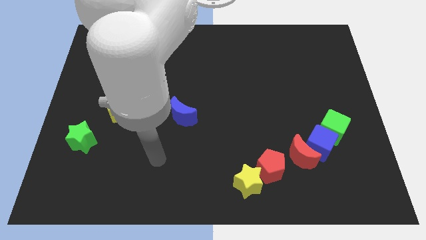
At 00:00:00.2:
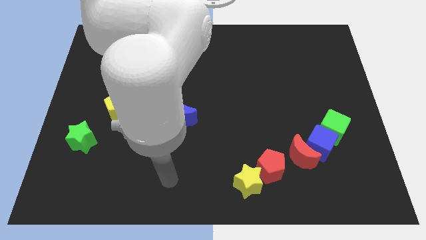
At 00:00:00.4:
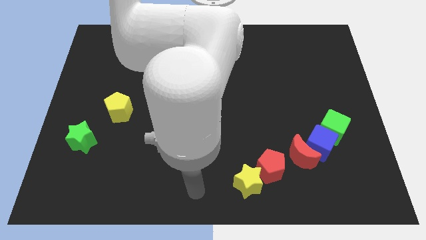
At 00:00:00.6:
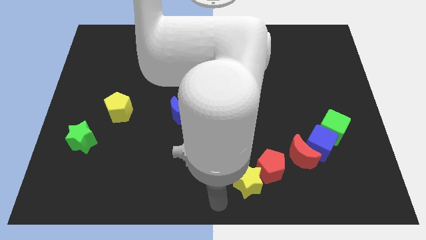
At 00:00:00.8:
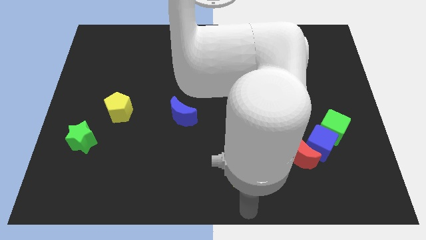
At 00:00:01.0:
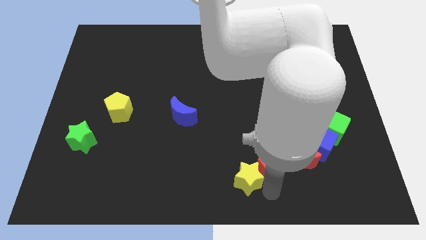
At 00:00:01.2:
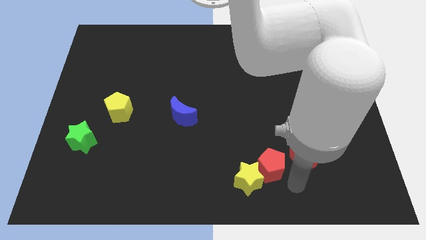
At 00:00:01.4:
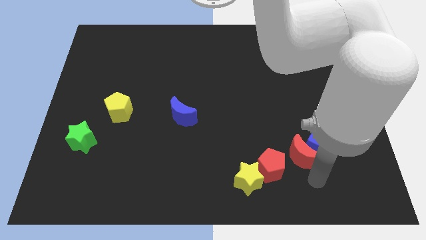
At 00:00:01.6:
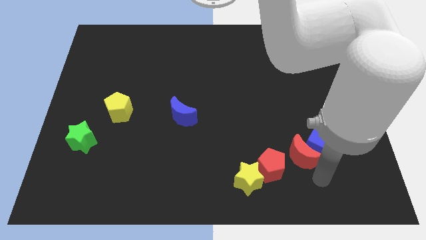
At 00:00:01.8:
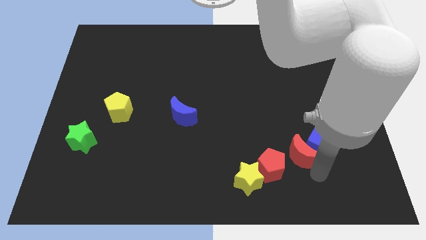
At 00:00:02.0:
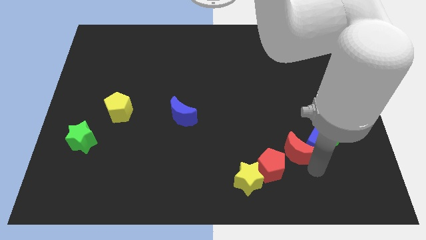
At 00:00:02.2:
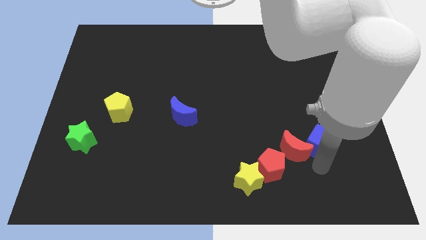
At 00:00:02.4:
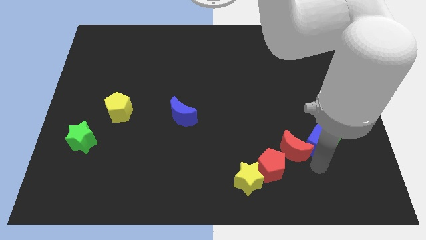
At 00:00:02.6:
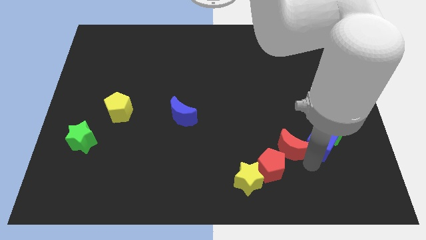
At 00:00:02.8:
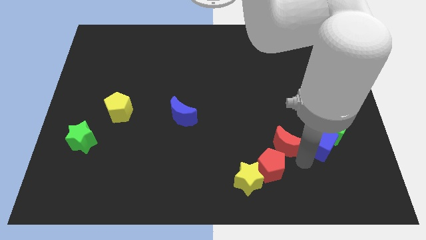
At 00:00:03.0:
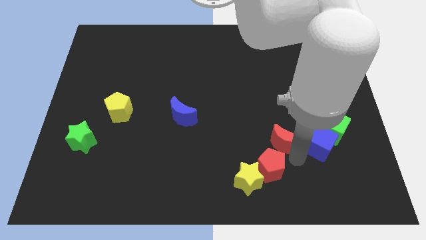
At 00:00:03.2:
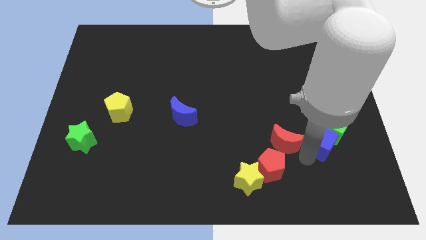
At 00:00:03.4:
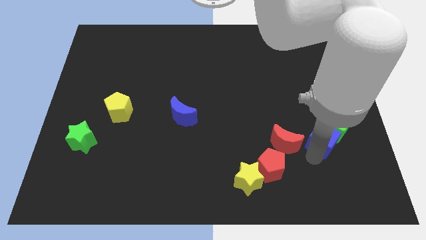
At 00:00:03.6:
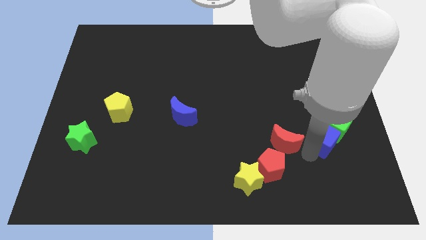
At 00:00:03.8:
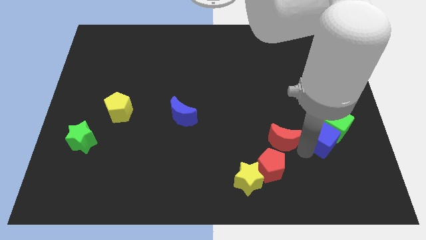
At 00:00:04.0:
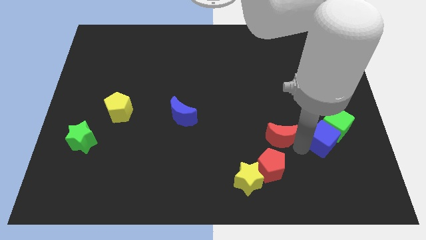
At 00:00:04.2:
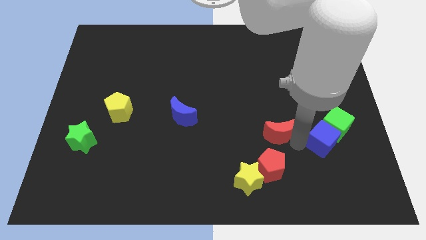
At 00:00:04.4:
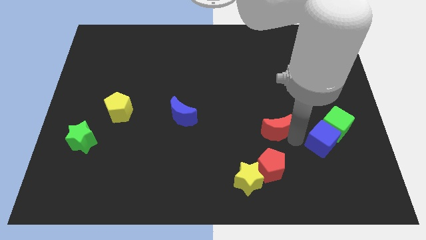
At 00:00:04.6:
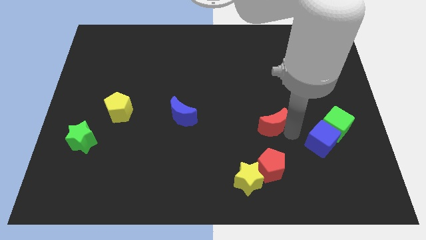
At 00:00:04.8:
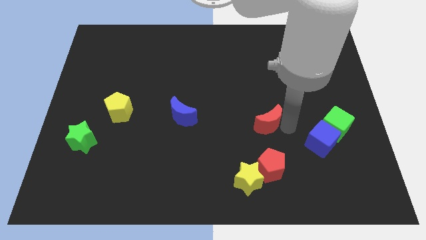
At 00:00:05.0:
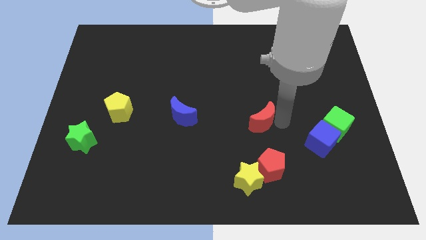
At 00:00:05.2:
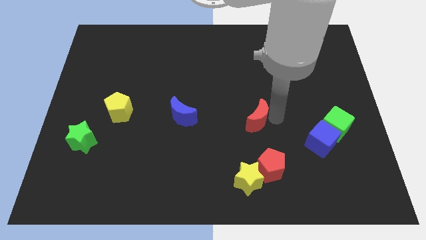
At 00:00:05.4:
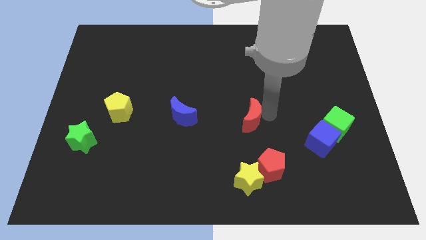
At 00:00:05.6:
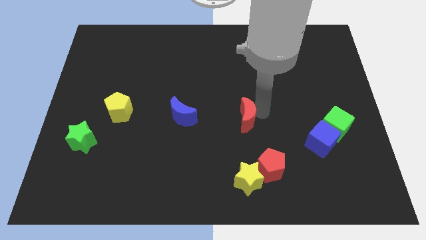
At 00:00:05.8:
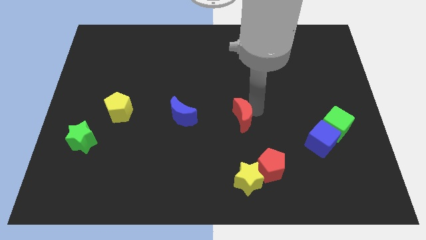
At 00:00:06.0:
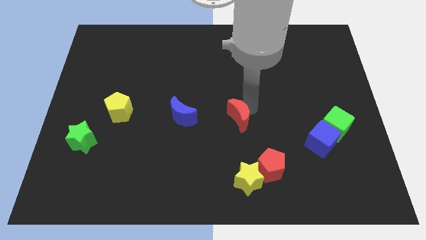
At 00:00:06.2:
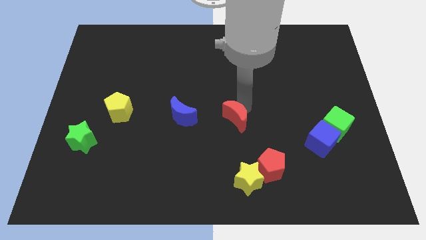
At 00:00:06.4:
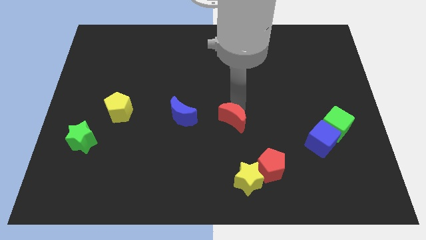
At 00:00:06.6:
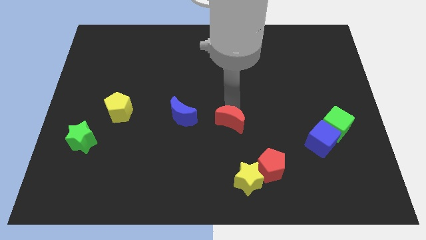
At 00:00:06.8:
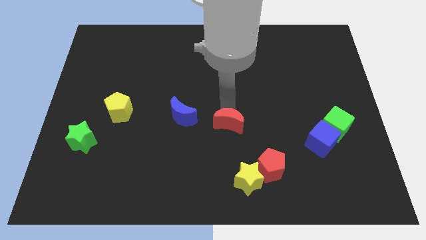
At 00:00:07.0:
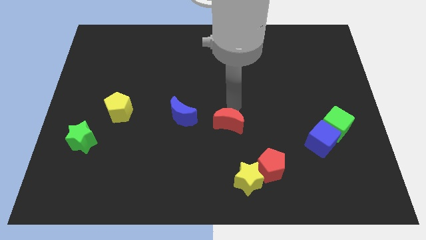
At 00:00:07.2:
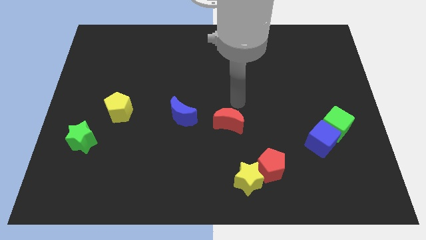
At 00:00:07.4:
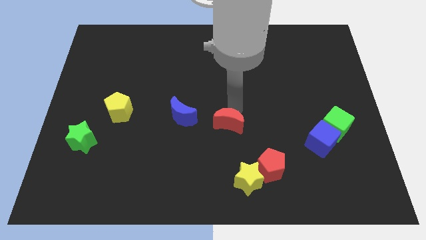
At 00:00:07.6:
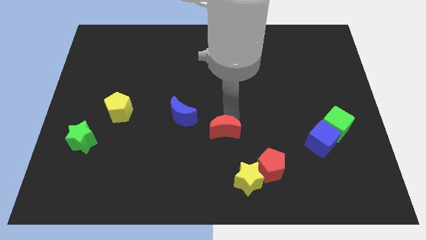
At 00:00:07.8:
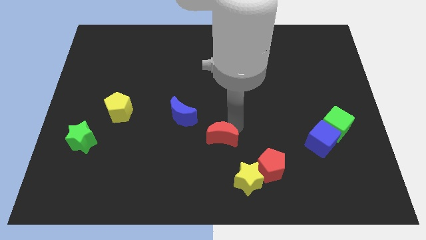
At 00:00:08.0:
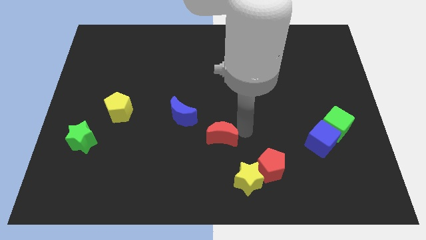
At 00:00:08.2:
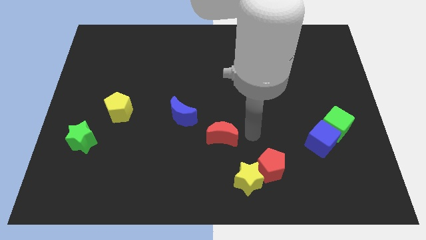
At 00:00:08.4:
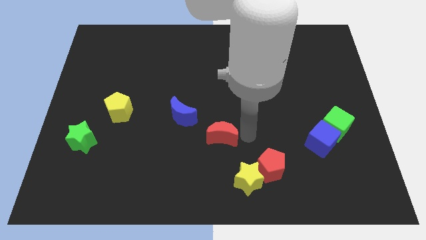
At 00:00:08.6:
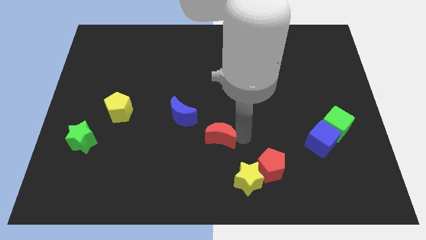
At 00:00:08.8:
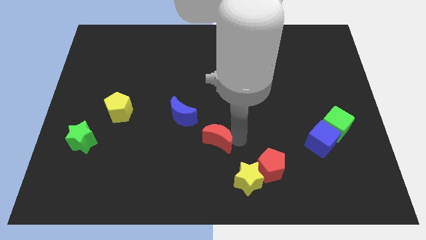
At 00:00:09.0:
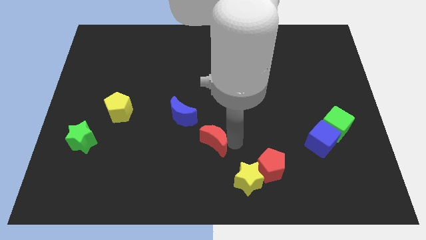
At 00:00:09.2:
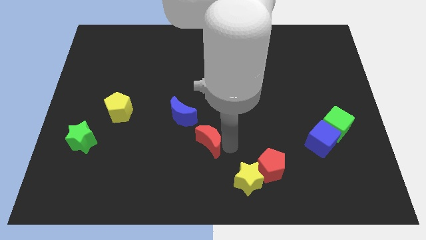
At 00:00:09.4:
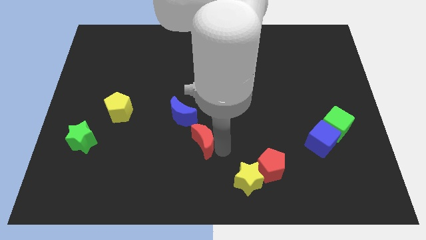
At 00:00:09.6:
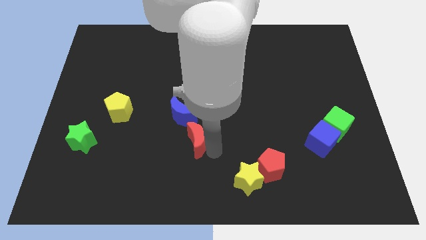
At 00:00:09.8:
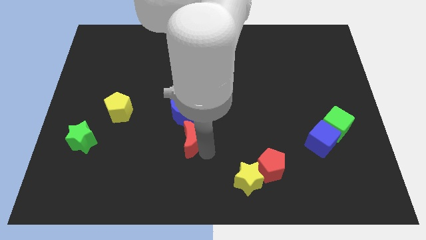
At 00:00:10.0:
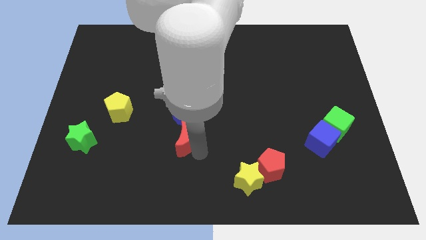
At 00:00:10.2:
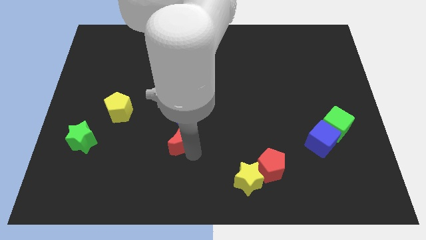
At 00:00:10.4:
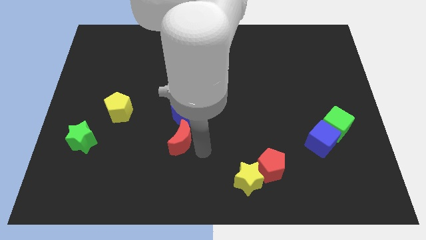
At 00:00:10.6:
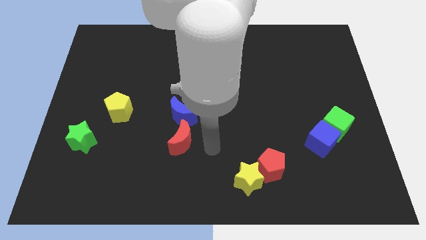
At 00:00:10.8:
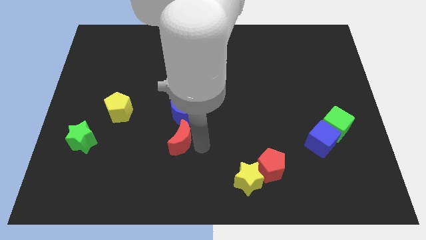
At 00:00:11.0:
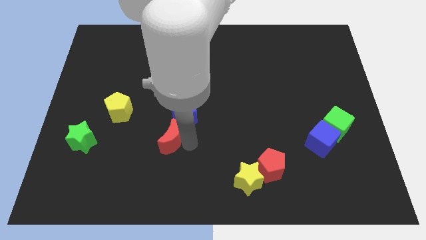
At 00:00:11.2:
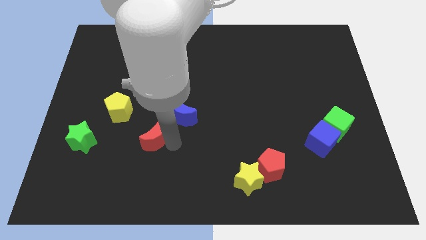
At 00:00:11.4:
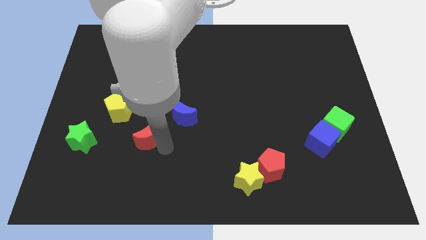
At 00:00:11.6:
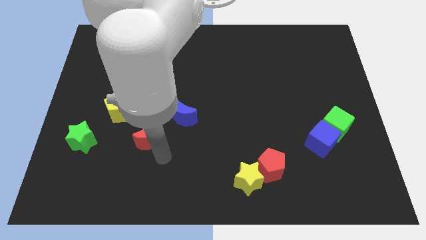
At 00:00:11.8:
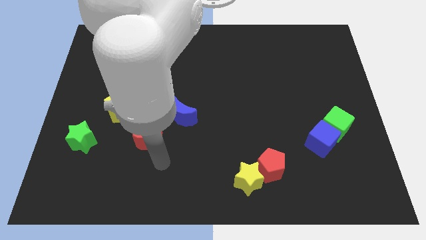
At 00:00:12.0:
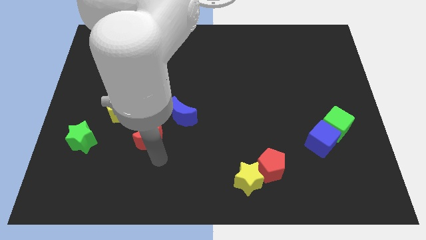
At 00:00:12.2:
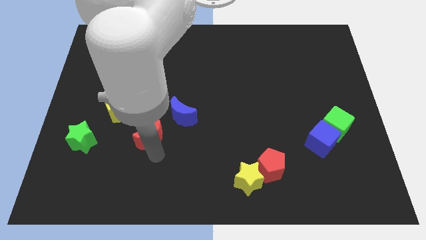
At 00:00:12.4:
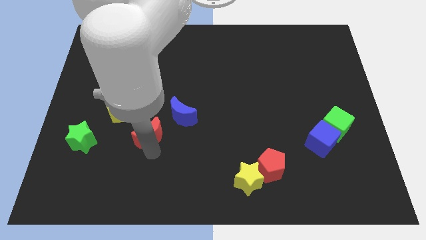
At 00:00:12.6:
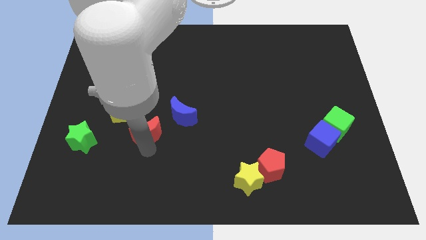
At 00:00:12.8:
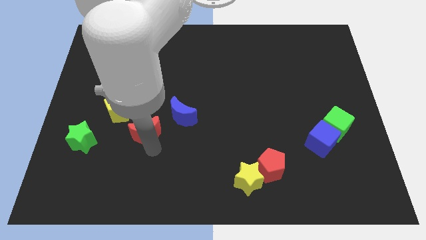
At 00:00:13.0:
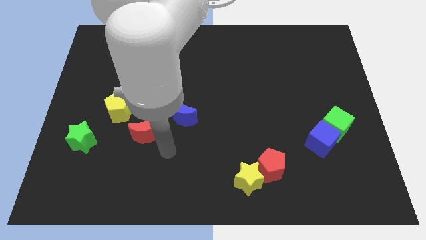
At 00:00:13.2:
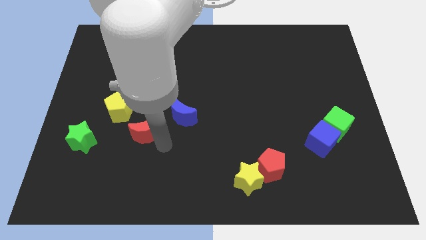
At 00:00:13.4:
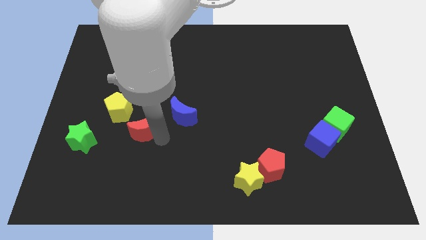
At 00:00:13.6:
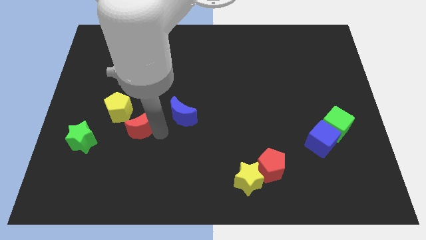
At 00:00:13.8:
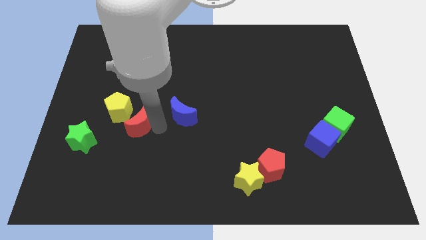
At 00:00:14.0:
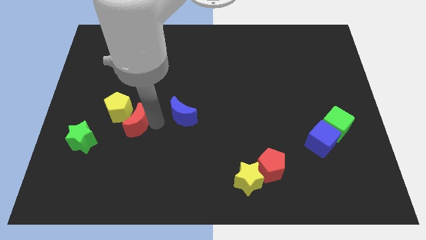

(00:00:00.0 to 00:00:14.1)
put the red moon to the yellow pentagon

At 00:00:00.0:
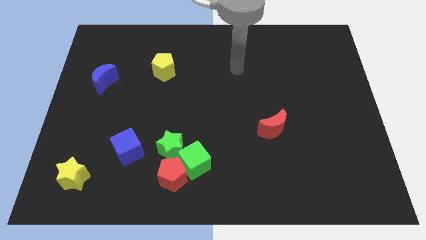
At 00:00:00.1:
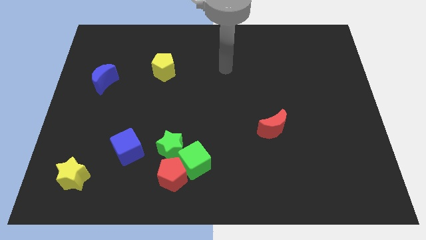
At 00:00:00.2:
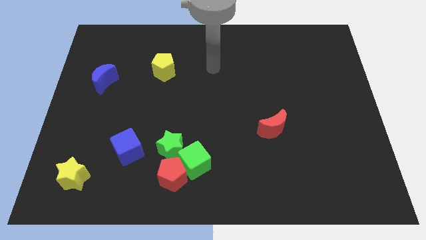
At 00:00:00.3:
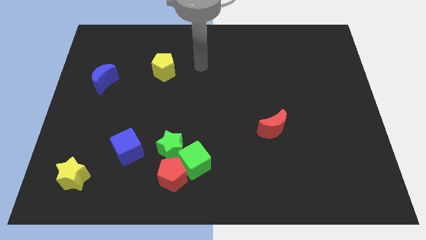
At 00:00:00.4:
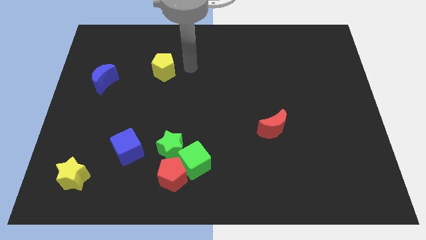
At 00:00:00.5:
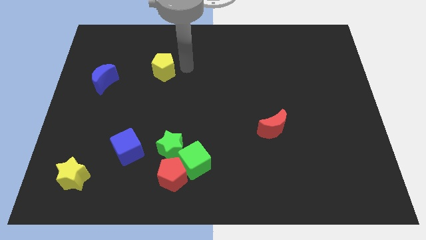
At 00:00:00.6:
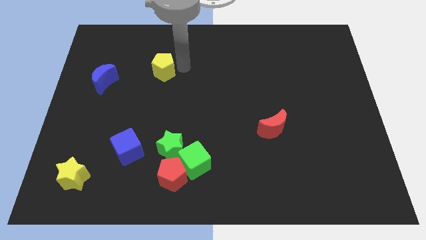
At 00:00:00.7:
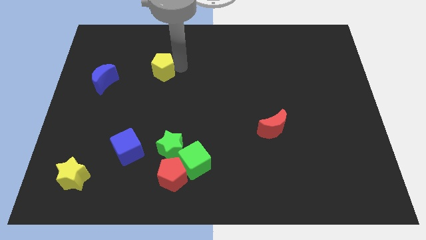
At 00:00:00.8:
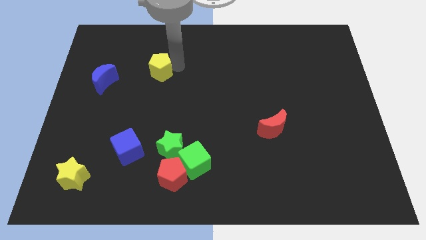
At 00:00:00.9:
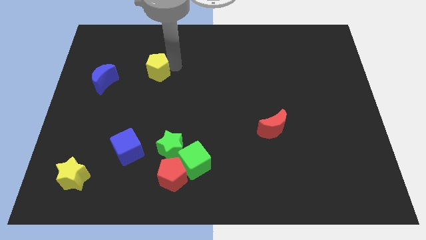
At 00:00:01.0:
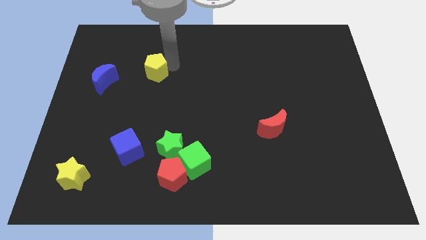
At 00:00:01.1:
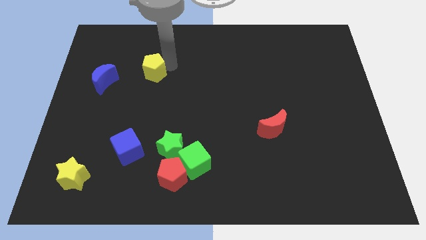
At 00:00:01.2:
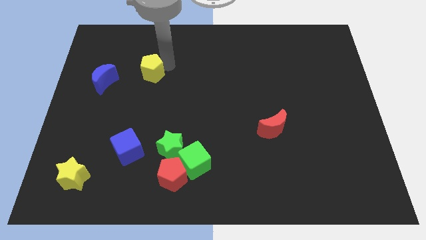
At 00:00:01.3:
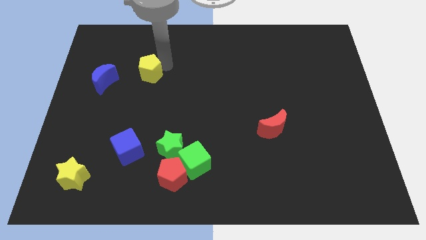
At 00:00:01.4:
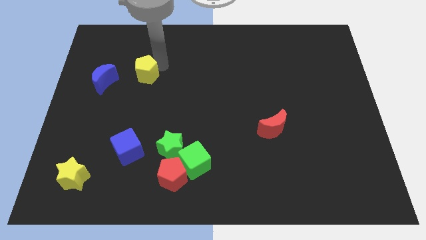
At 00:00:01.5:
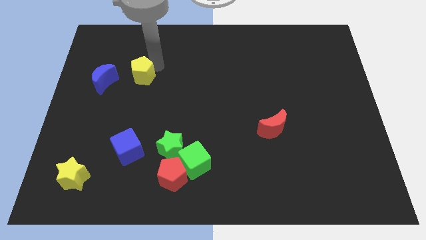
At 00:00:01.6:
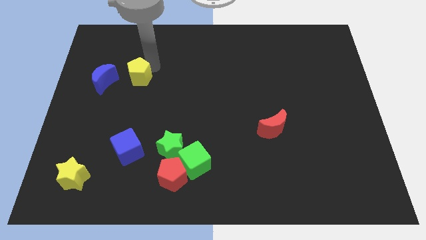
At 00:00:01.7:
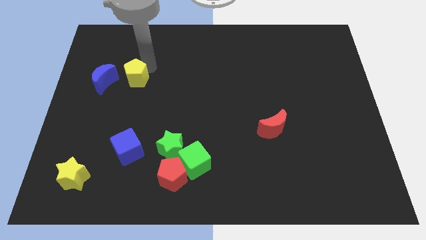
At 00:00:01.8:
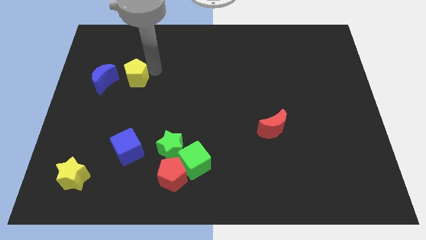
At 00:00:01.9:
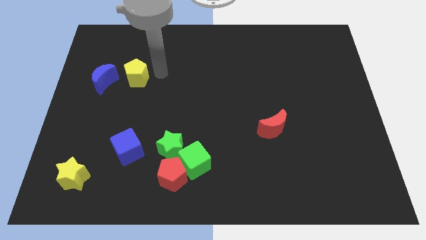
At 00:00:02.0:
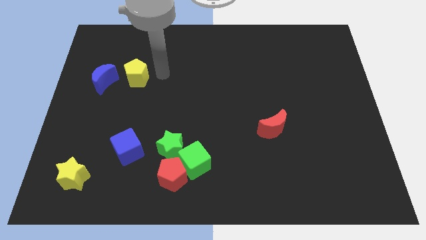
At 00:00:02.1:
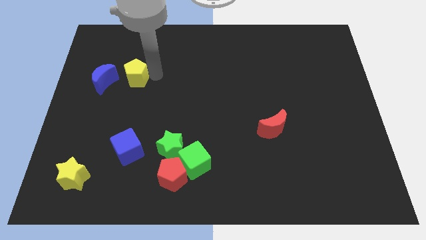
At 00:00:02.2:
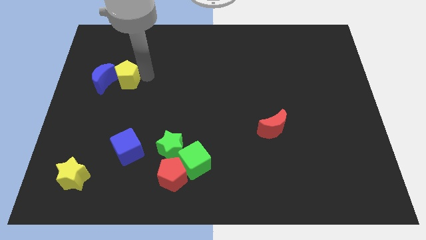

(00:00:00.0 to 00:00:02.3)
push the yellow pentagon next to the blue moon
